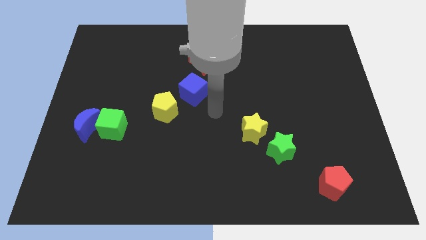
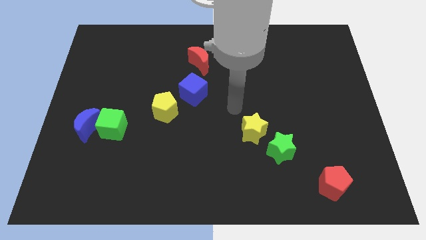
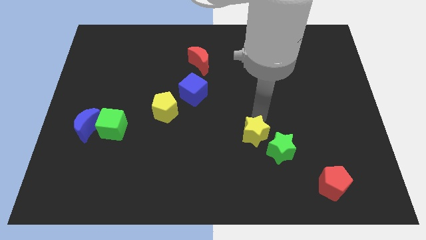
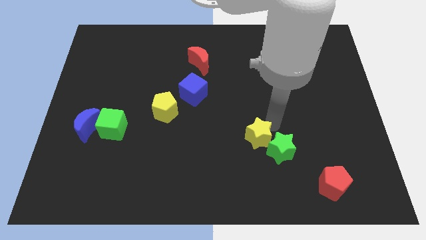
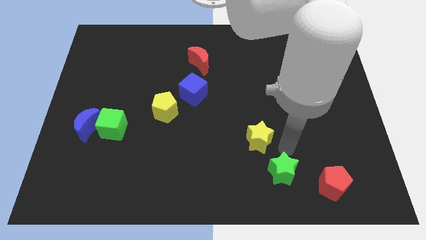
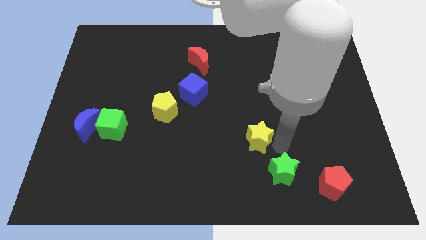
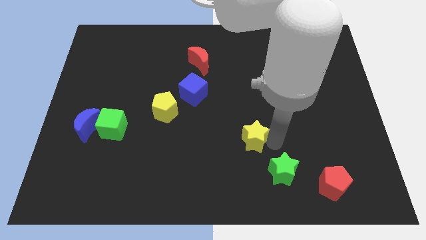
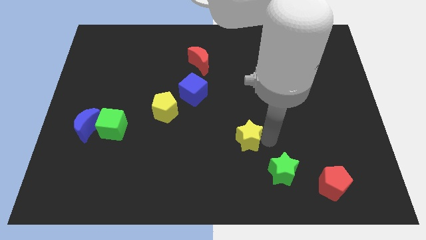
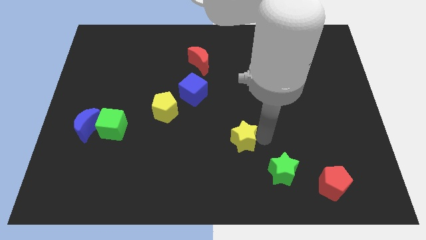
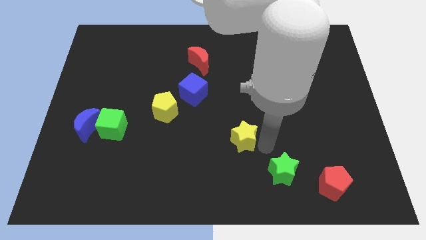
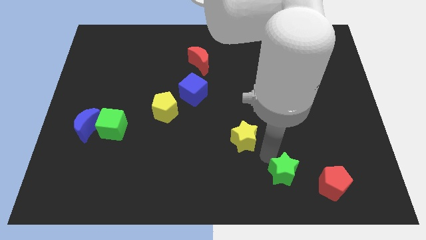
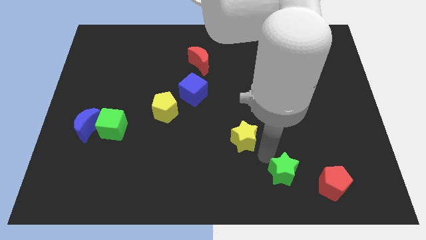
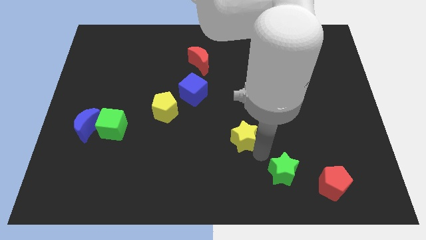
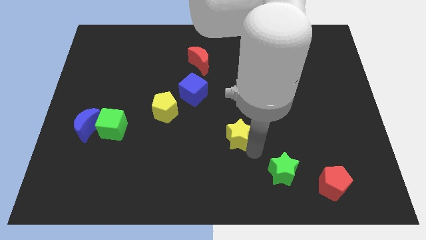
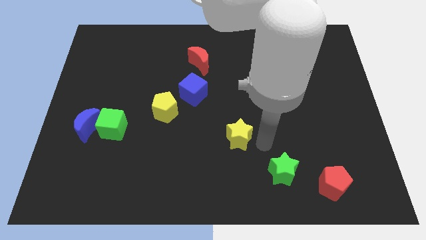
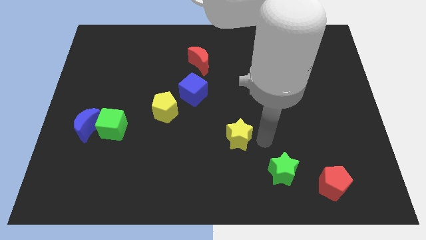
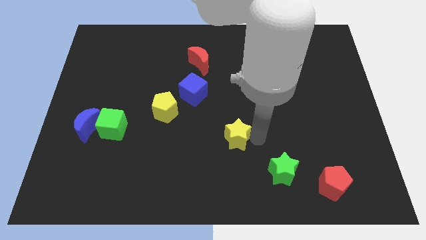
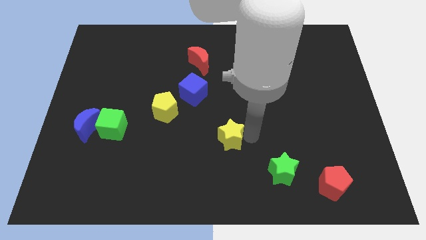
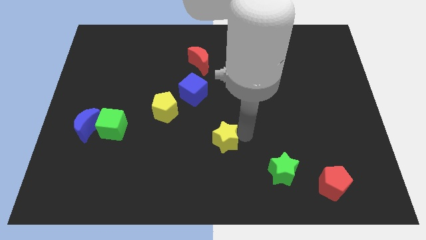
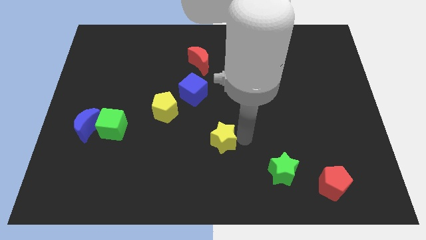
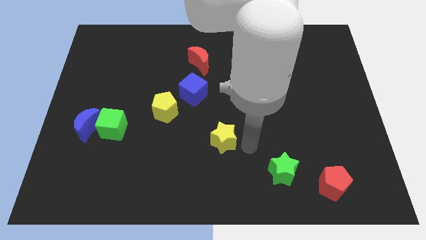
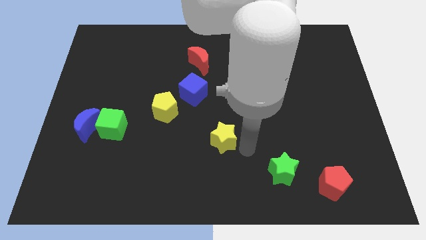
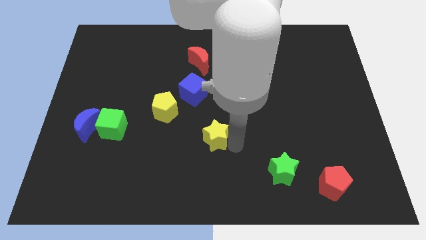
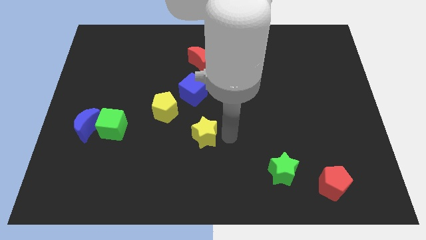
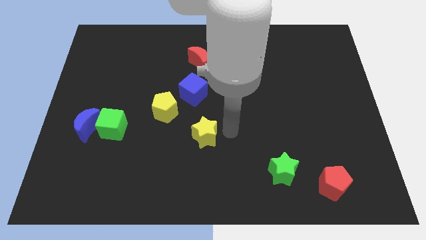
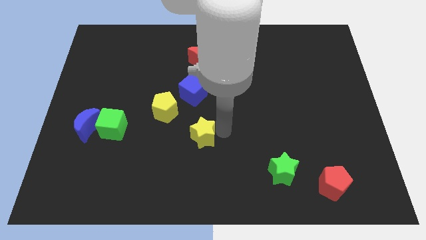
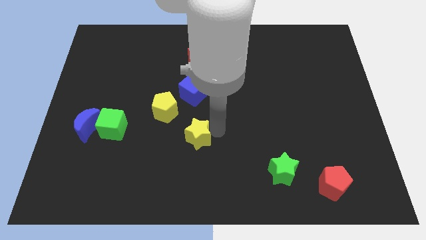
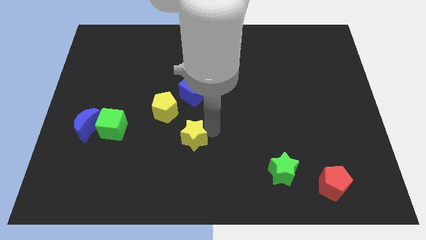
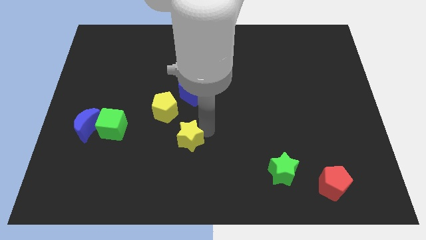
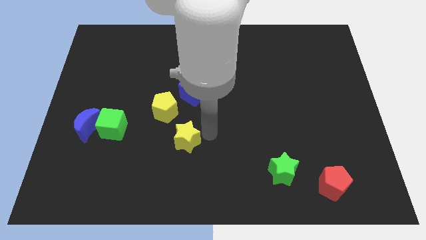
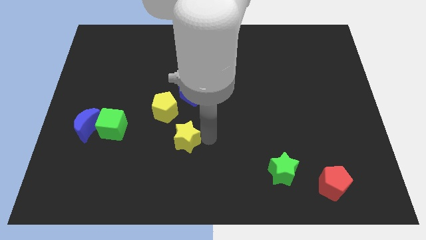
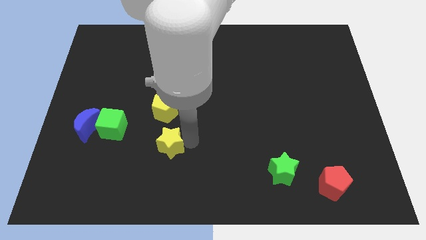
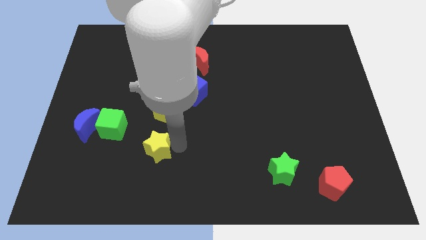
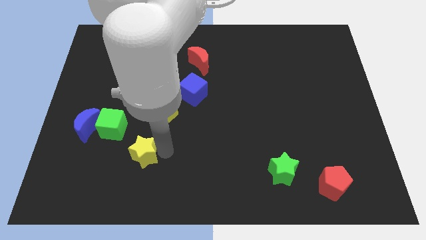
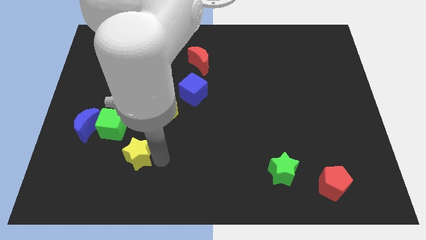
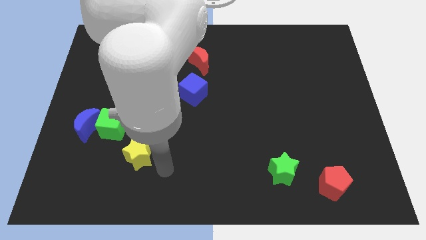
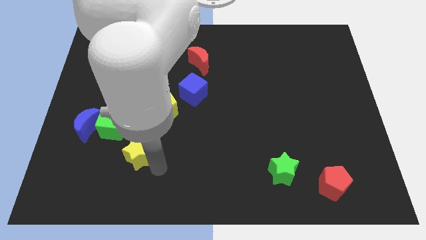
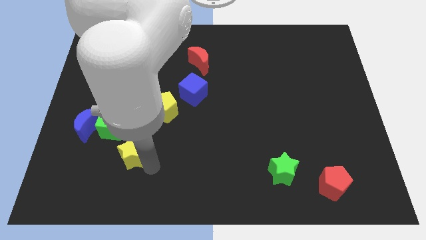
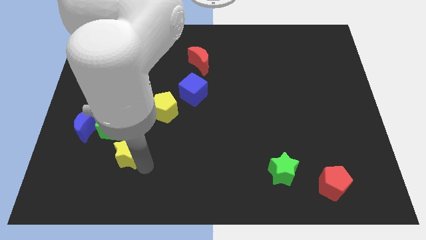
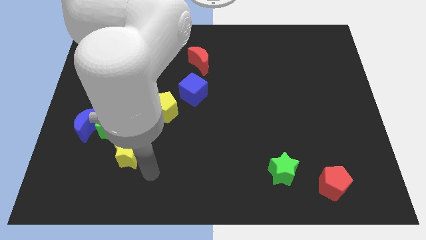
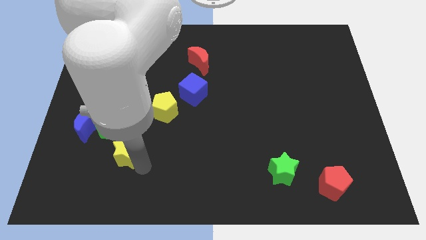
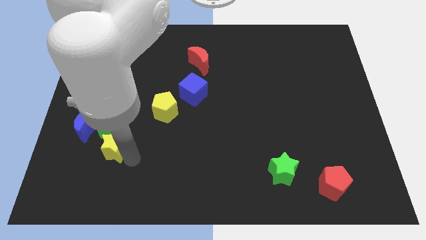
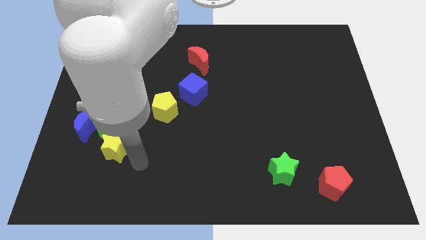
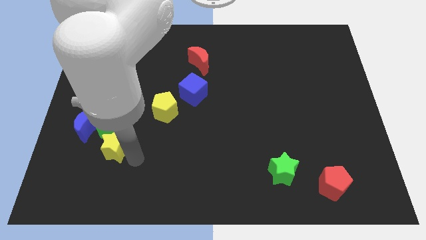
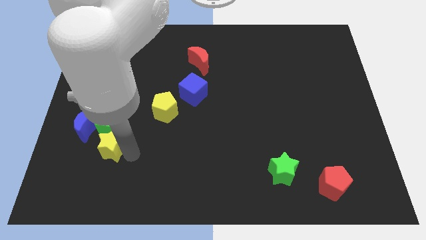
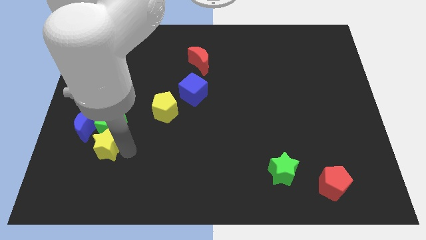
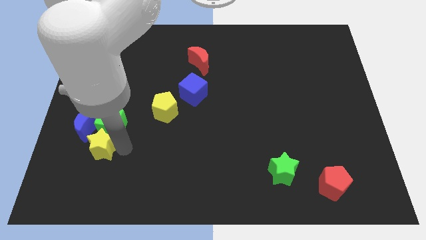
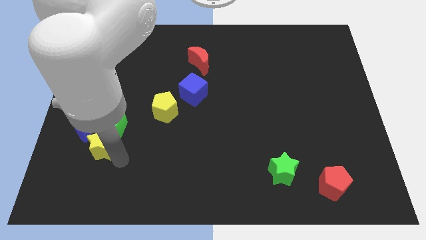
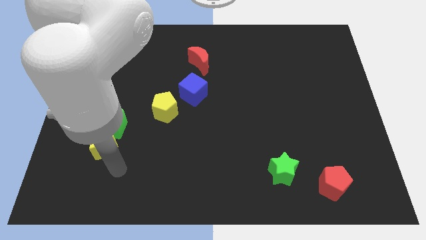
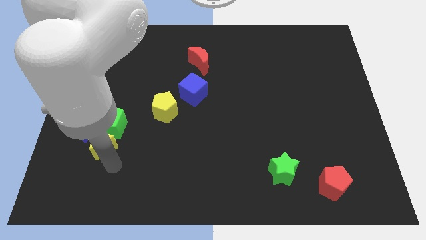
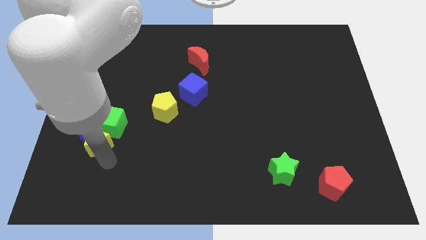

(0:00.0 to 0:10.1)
put the yellow star to the blue moon

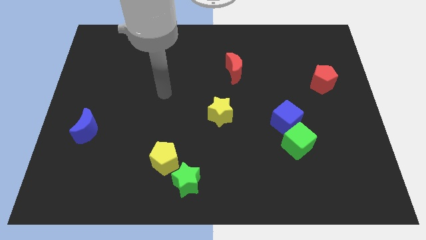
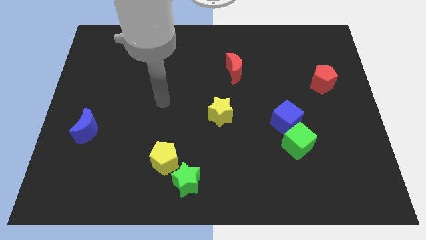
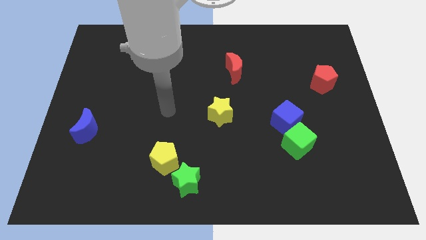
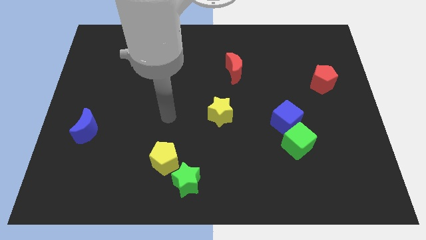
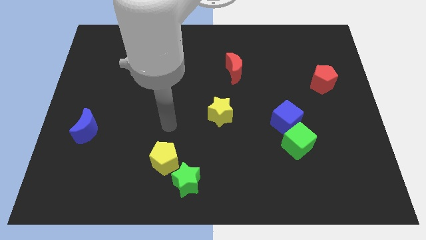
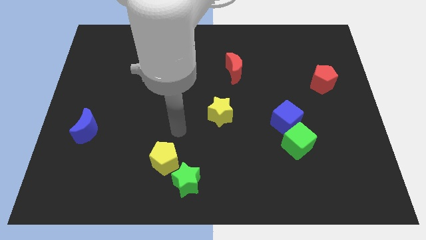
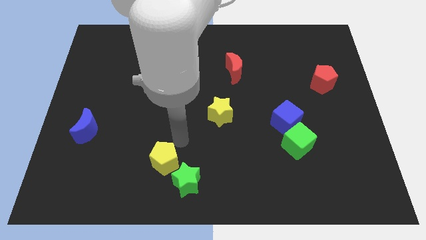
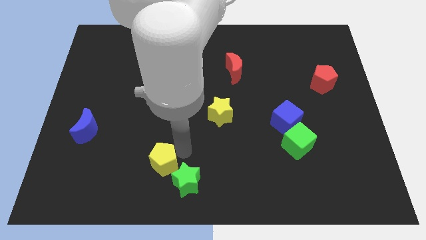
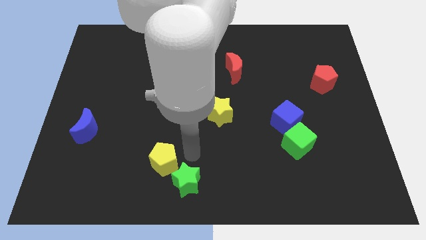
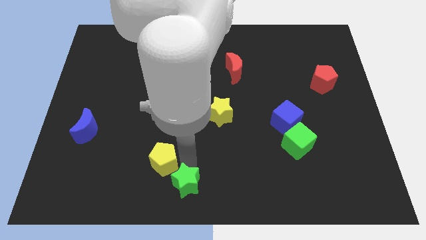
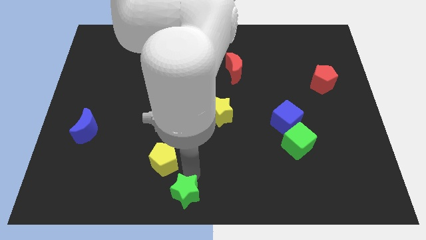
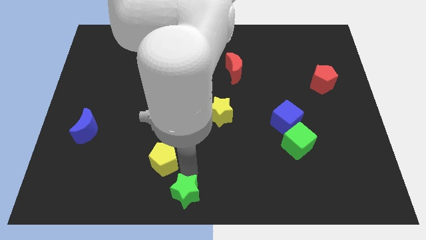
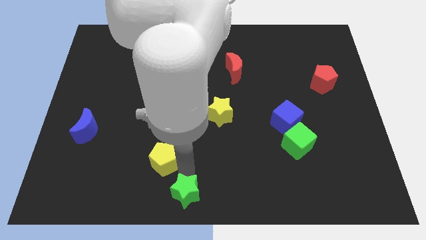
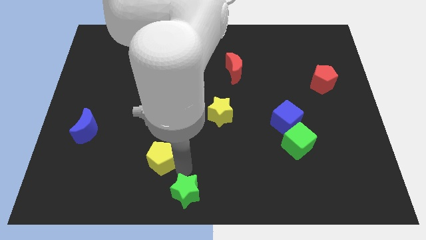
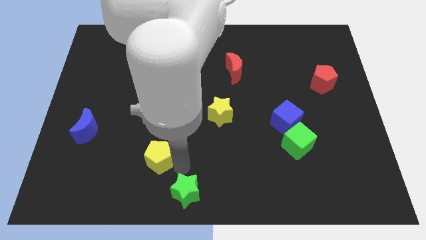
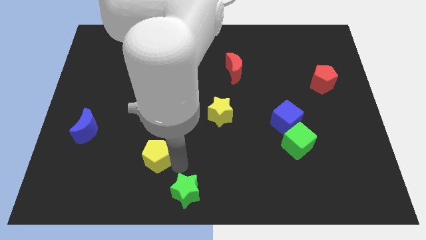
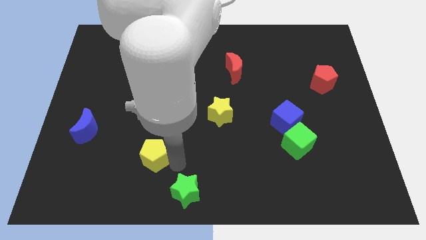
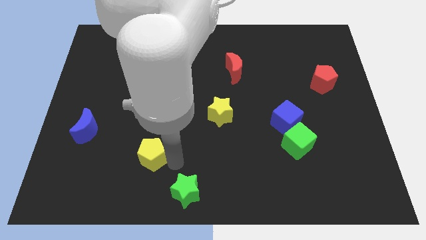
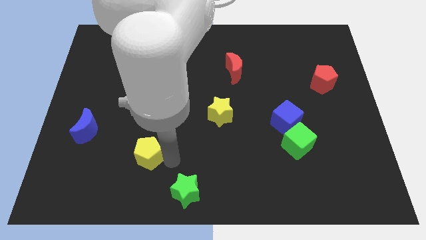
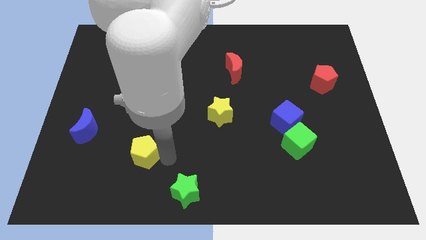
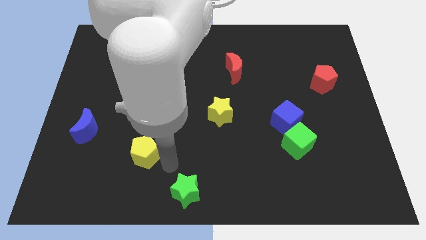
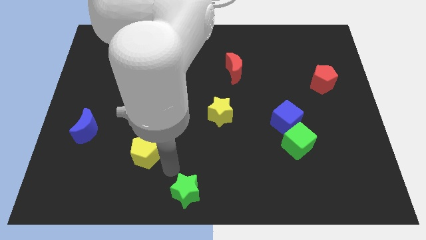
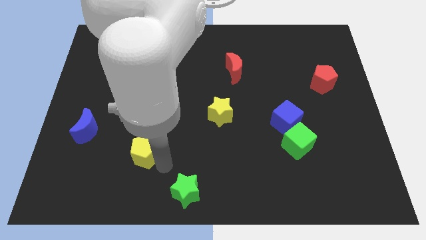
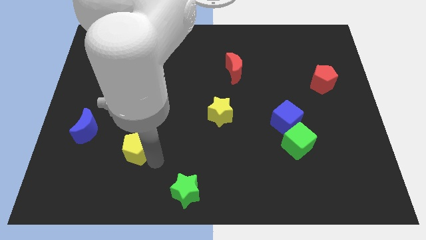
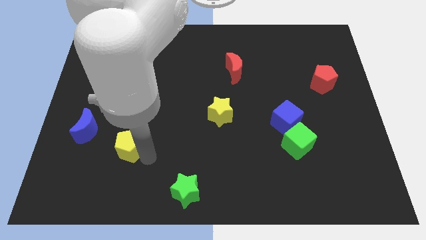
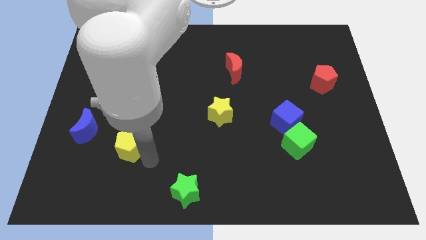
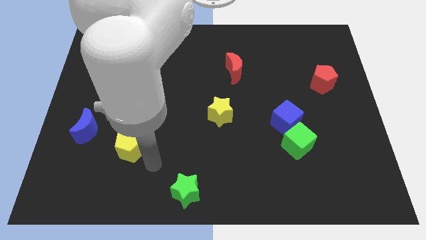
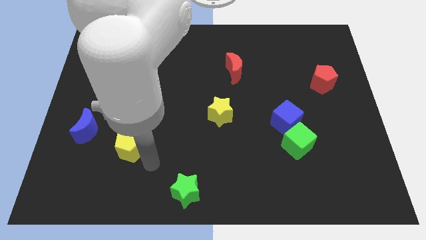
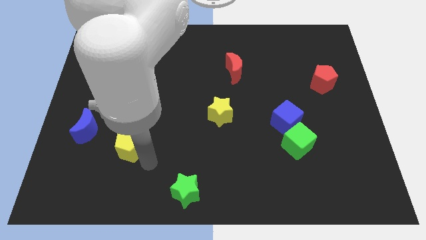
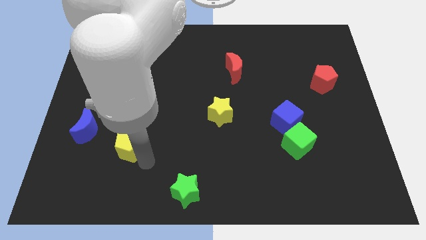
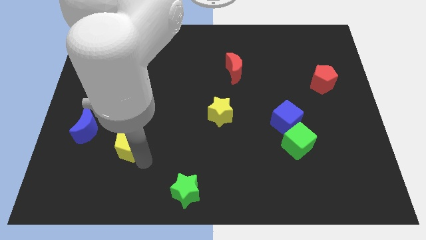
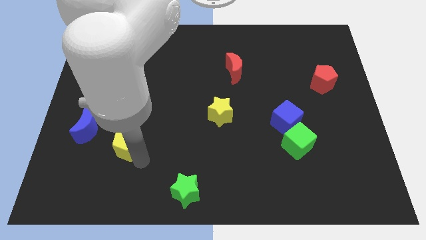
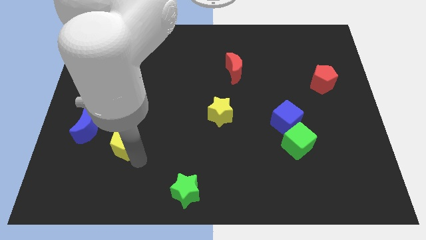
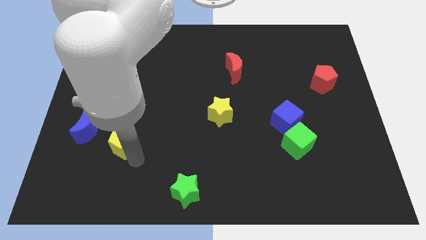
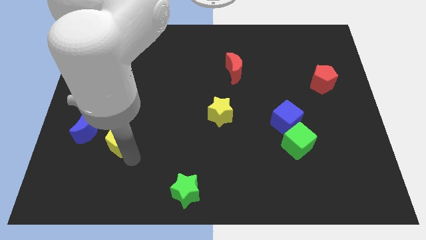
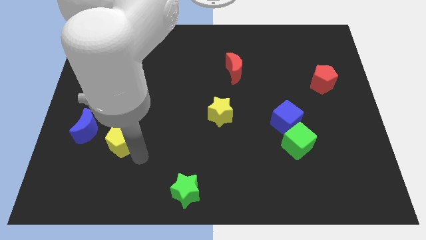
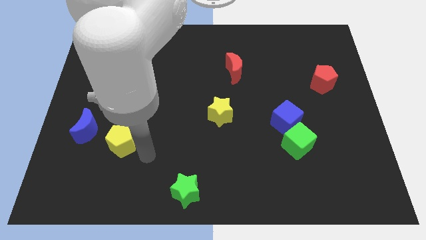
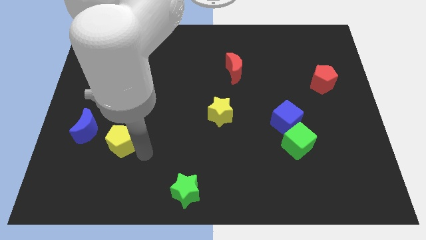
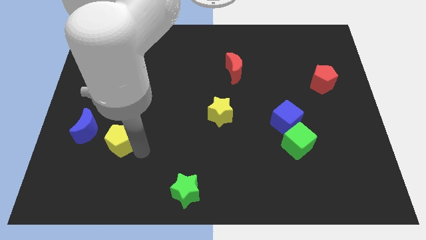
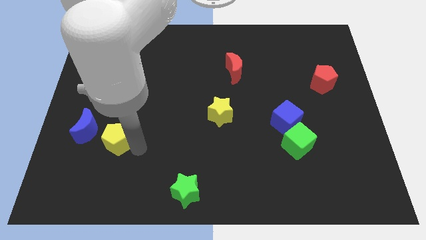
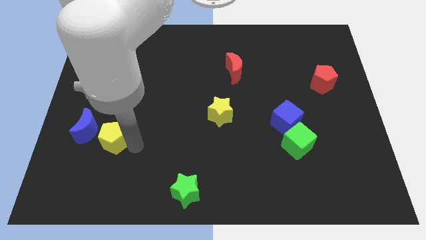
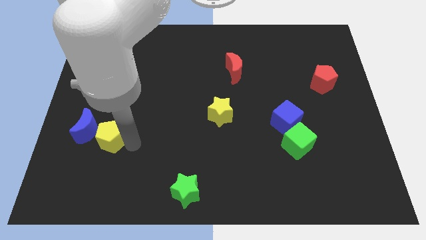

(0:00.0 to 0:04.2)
put the yellow pentagon close to the blue moon
